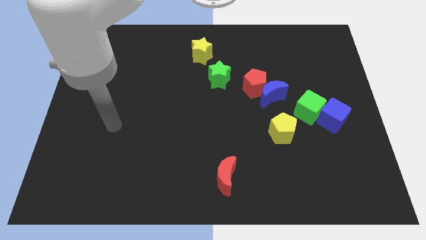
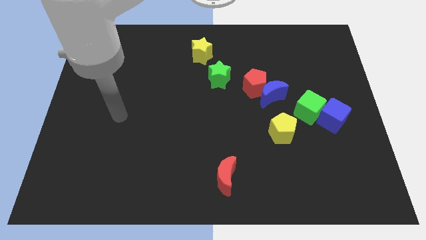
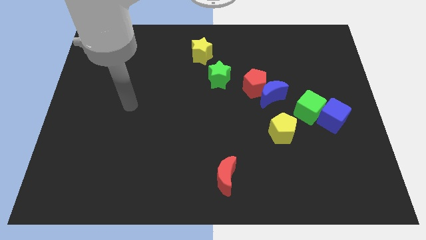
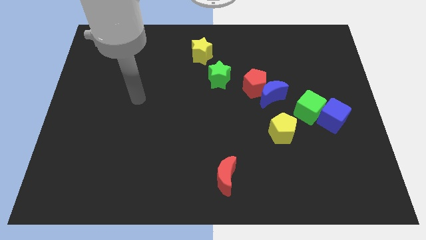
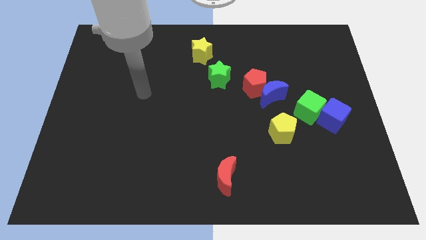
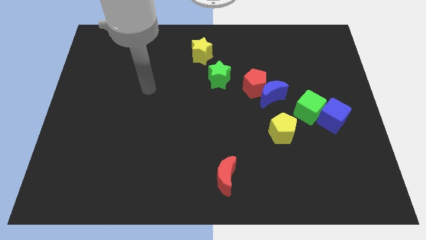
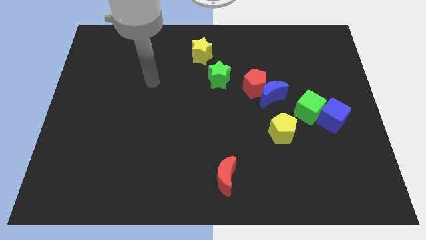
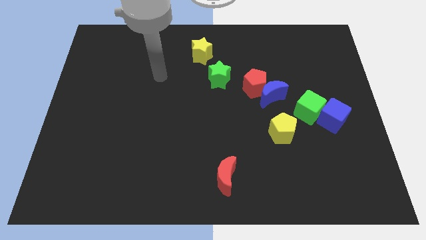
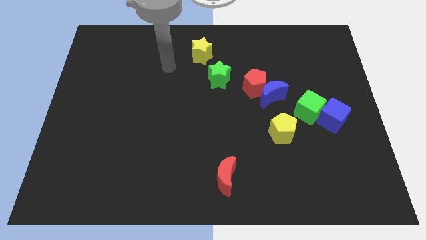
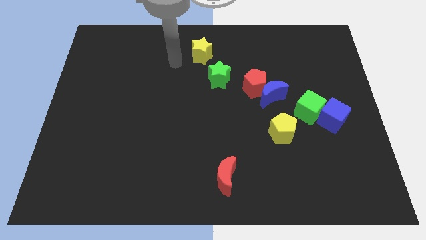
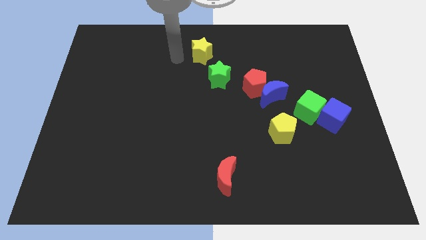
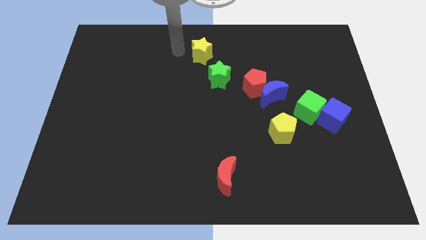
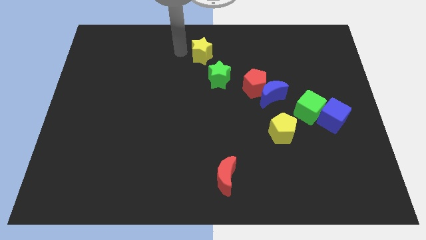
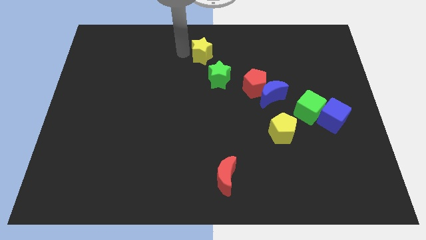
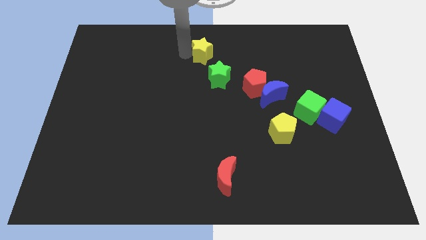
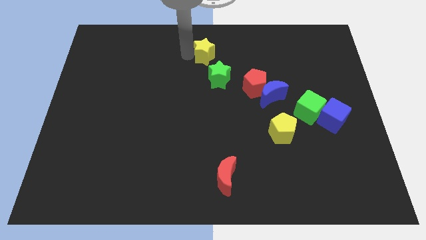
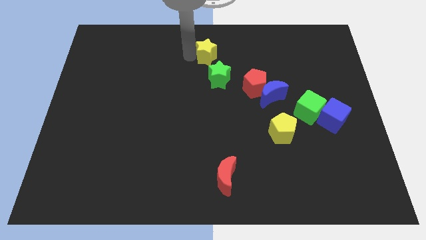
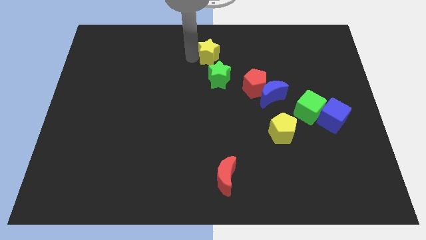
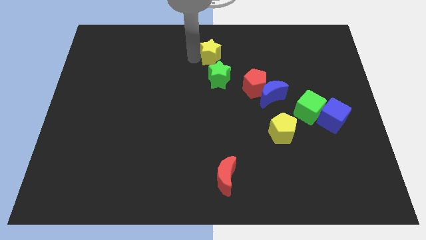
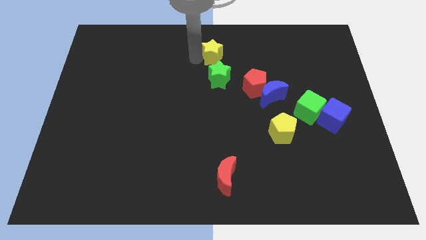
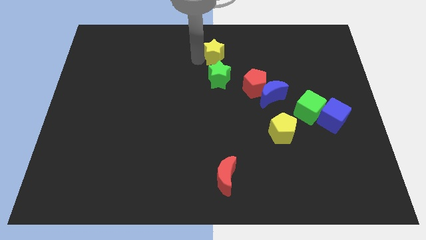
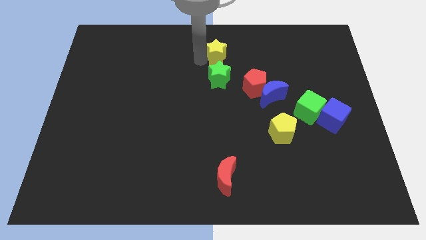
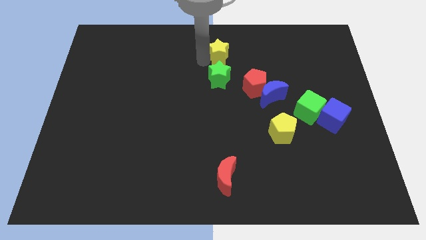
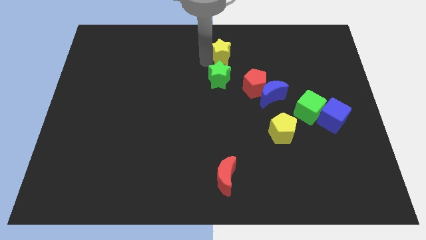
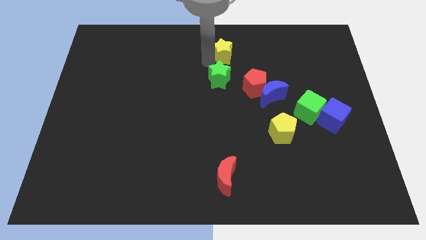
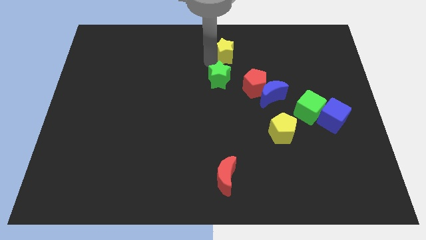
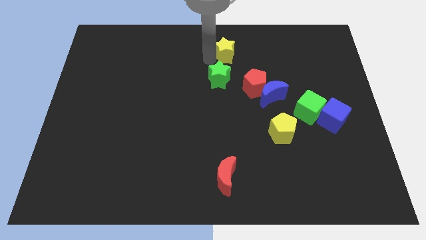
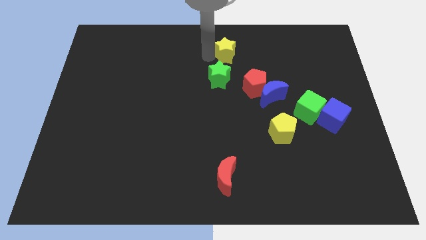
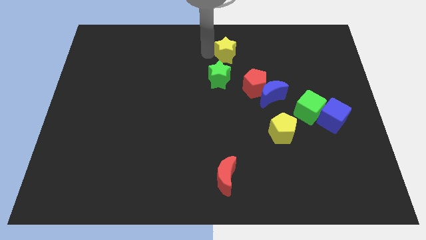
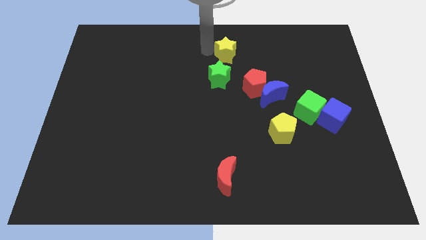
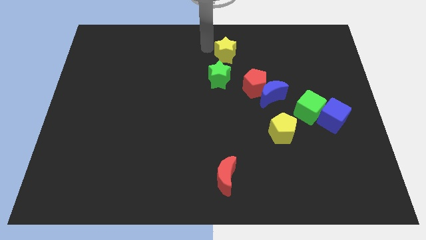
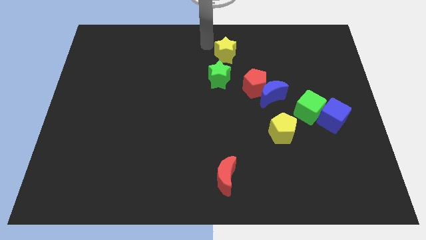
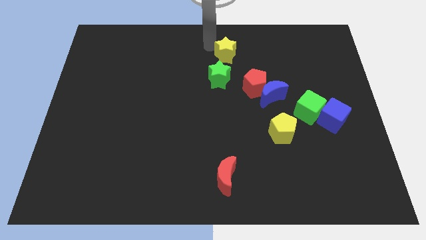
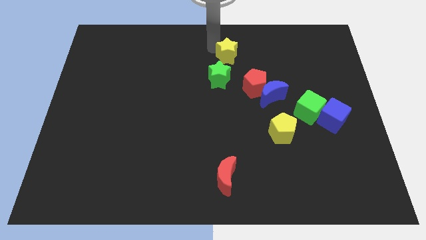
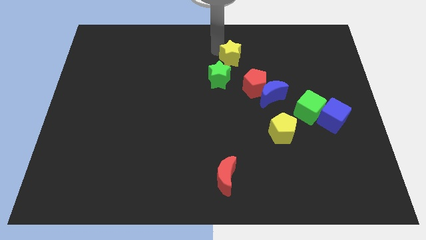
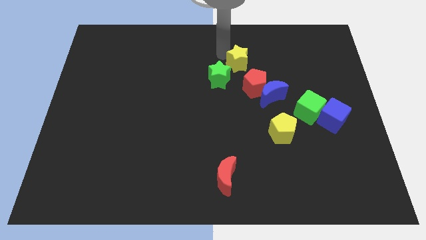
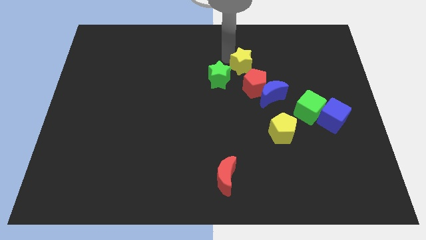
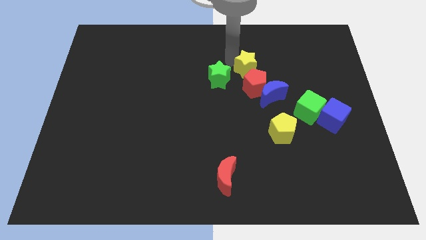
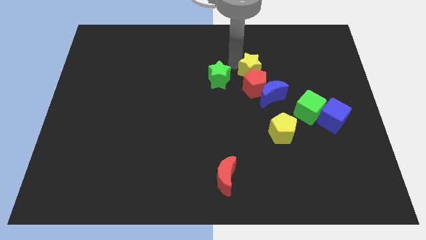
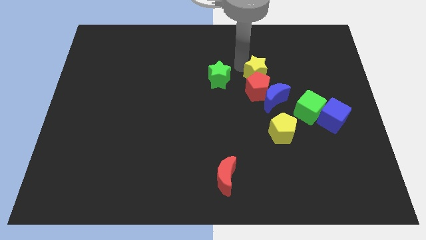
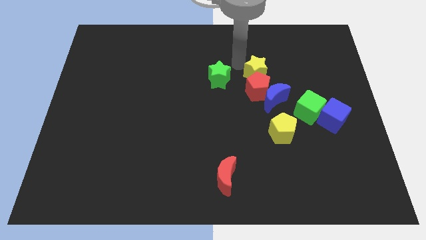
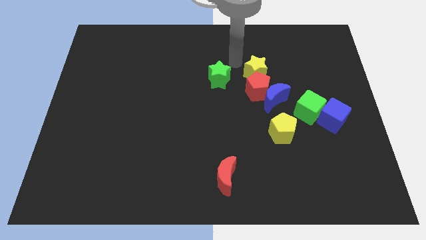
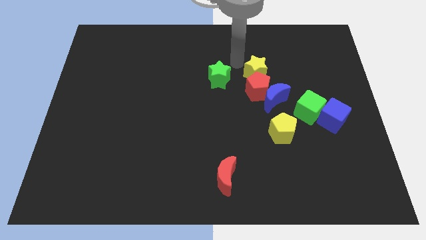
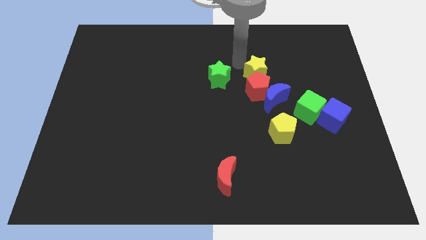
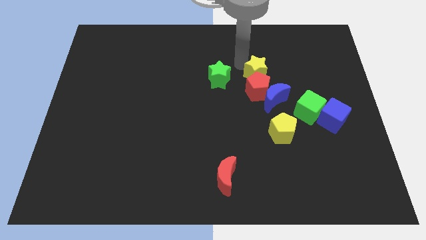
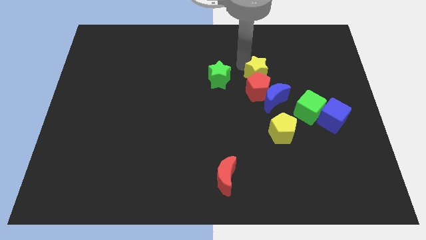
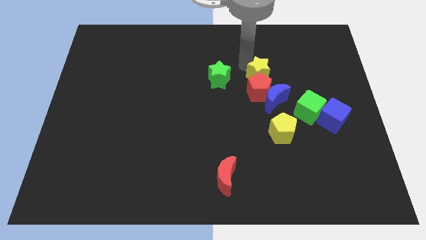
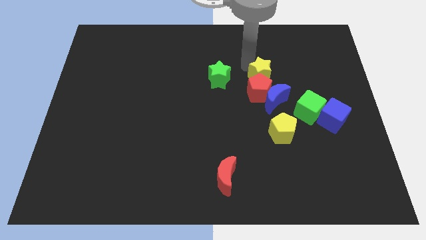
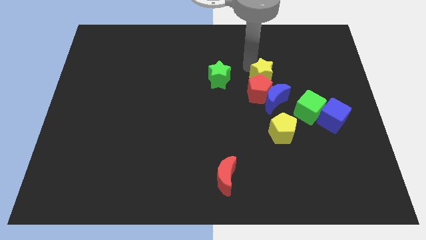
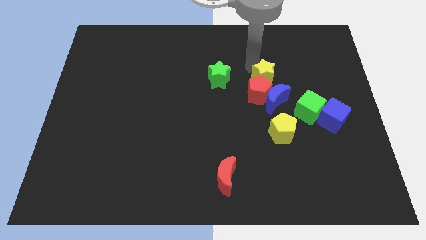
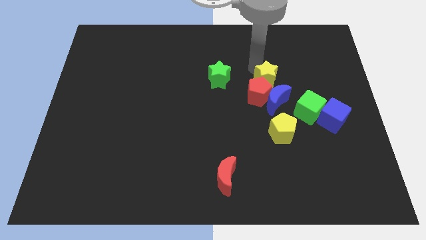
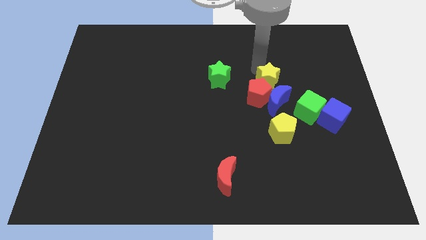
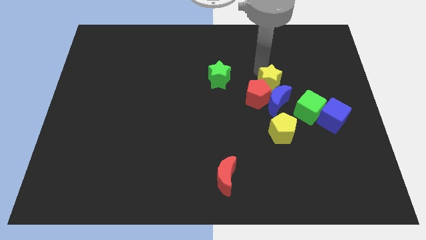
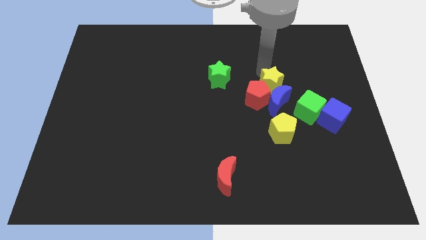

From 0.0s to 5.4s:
move the yellow star close to the blue moon

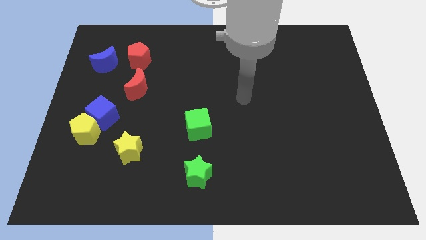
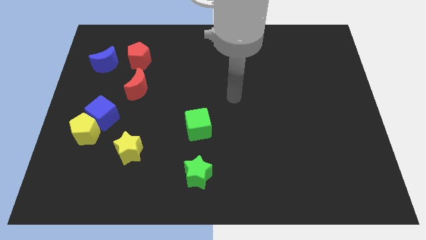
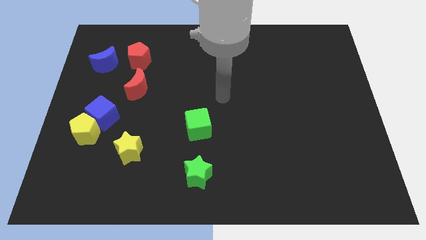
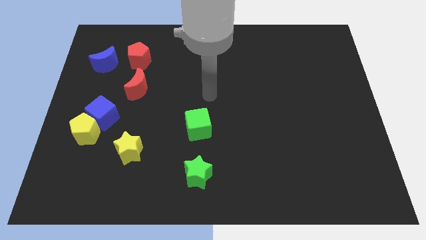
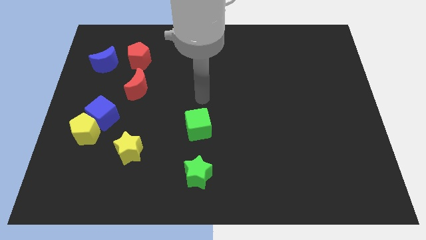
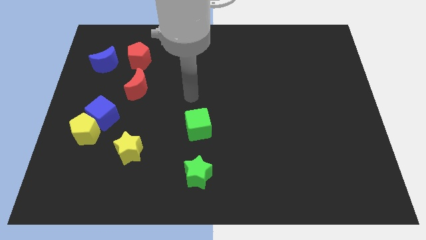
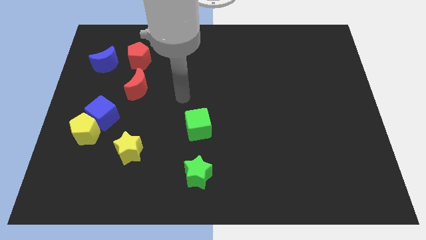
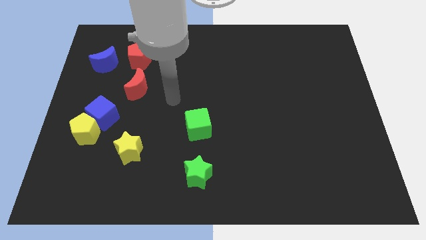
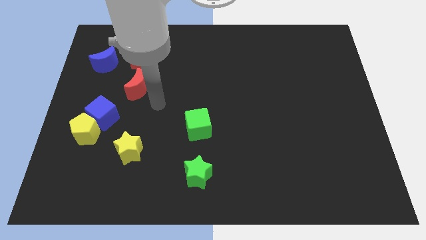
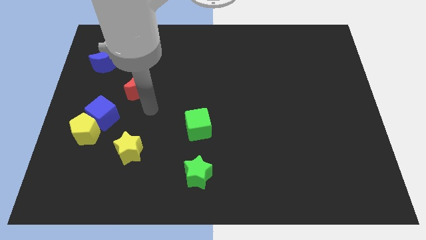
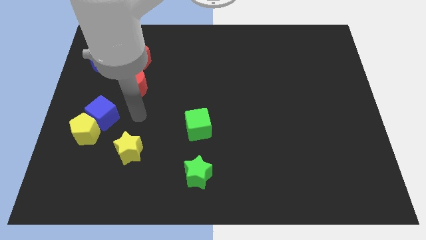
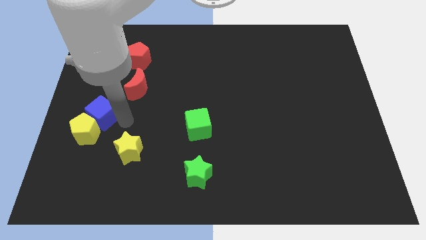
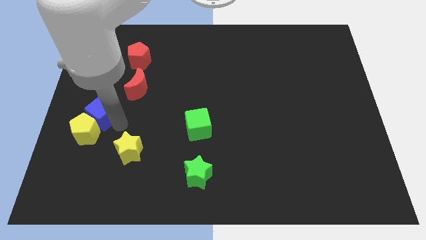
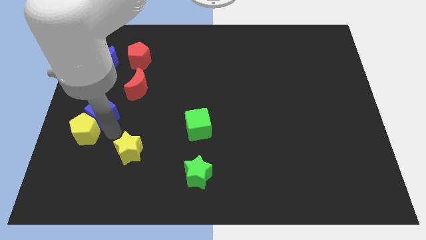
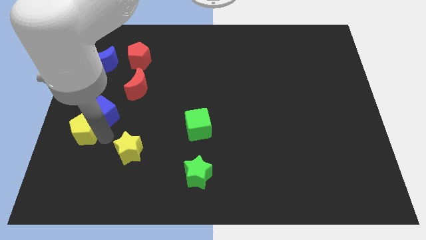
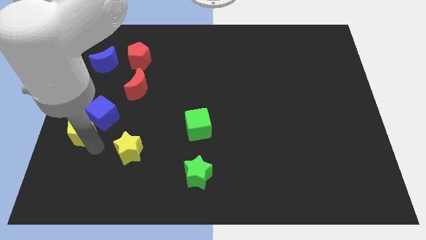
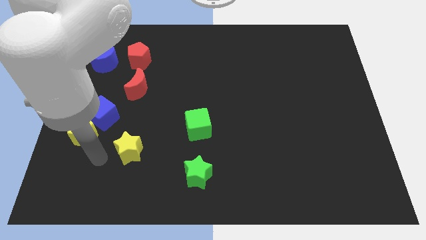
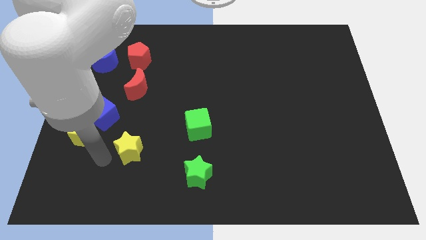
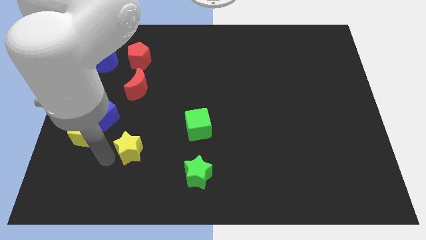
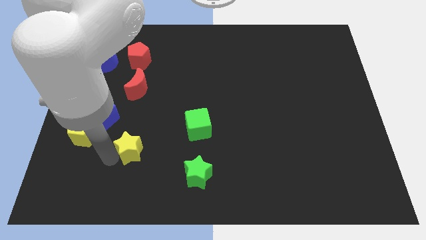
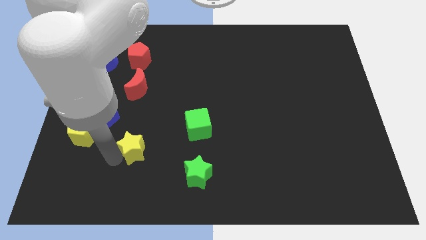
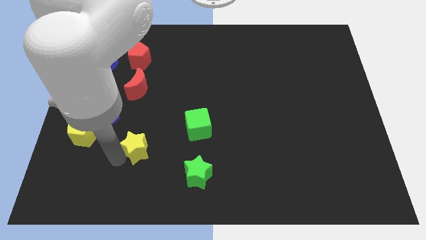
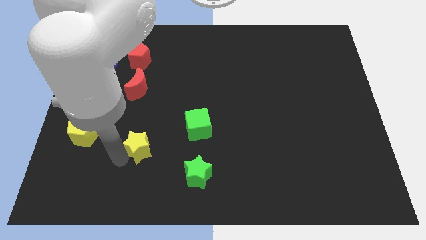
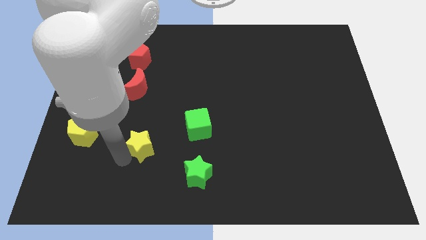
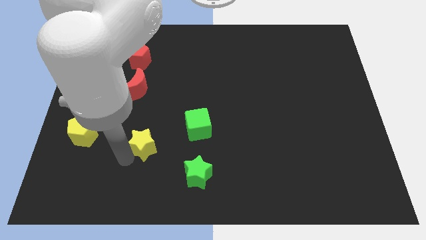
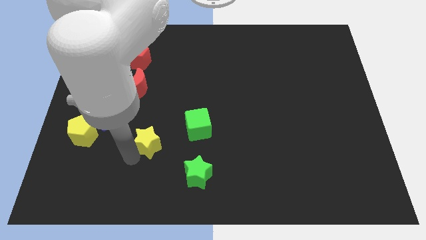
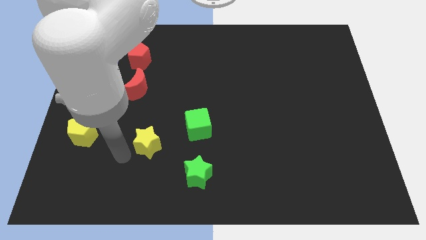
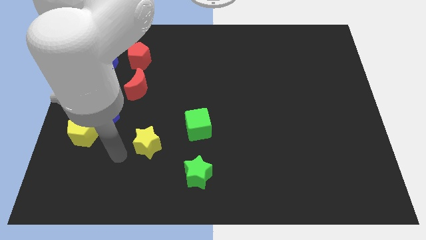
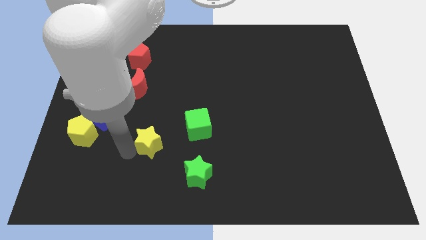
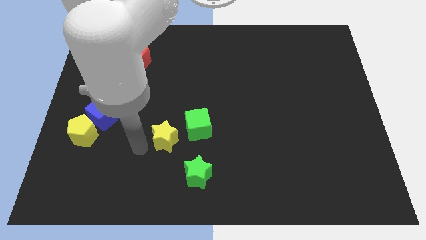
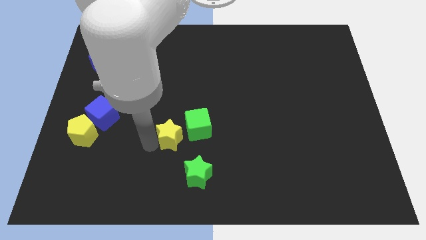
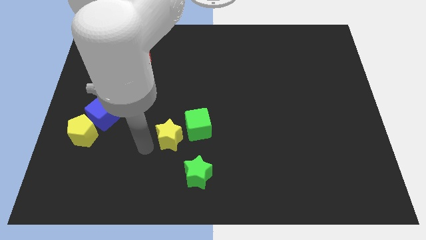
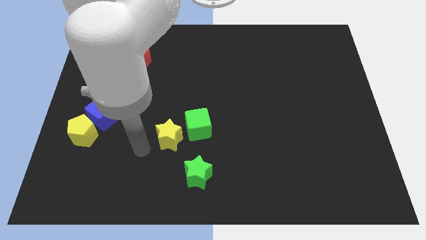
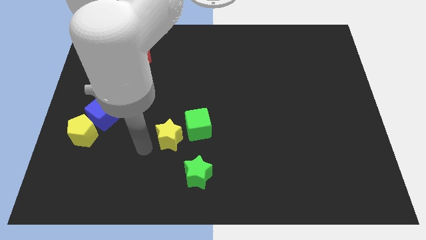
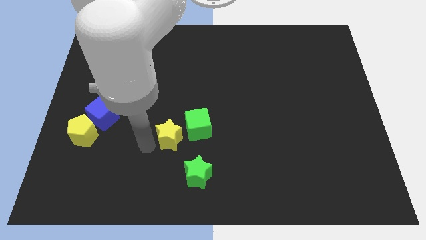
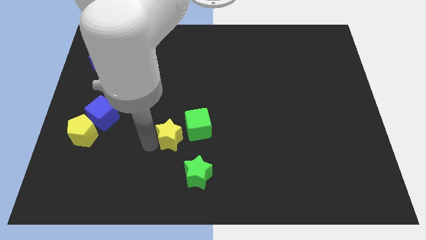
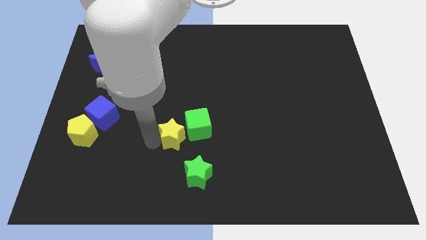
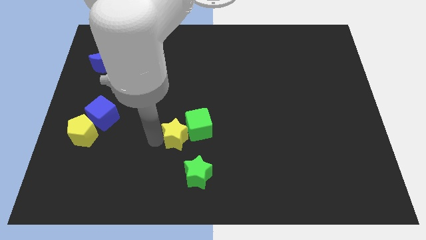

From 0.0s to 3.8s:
push the yellow star to the green cube
